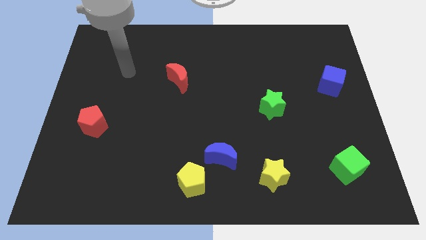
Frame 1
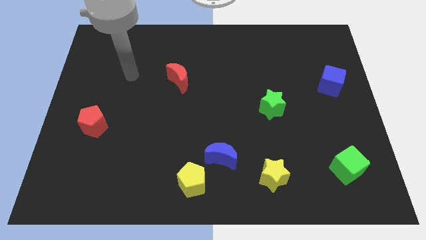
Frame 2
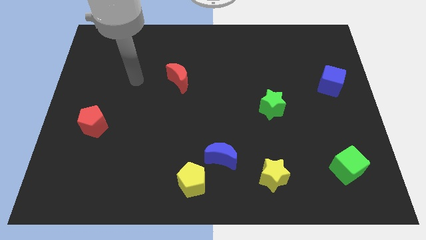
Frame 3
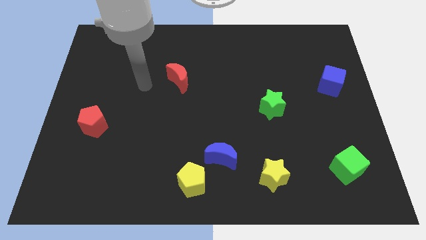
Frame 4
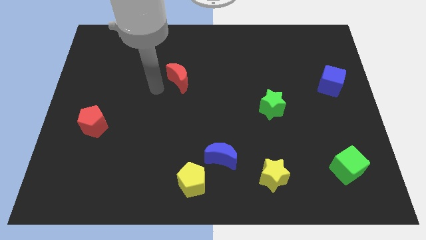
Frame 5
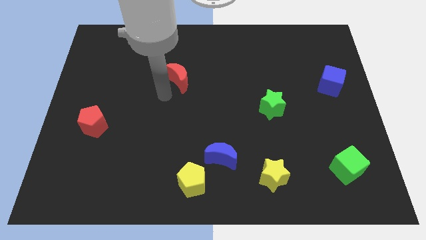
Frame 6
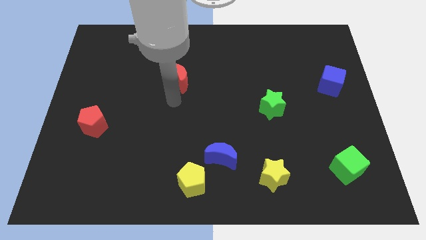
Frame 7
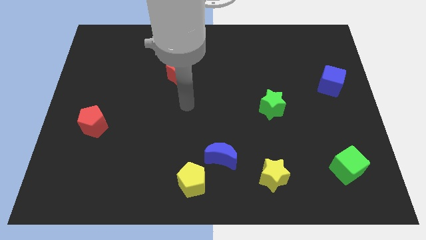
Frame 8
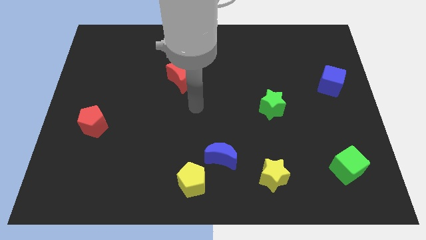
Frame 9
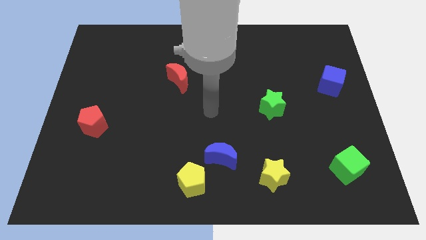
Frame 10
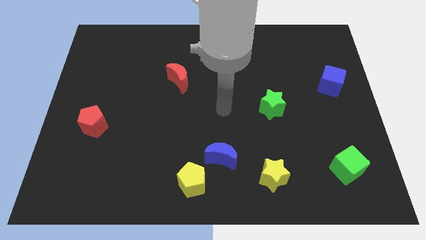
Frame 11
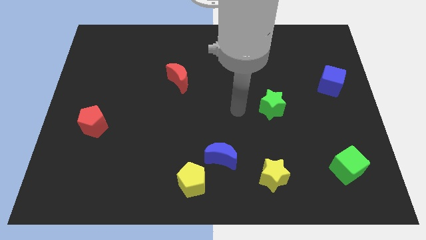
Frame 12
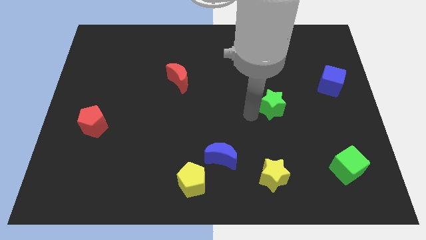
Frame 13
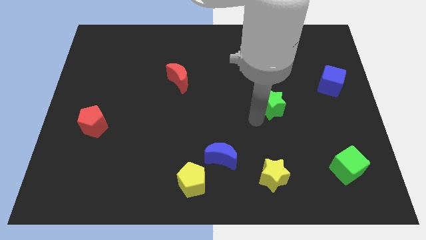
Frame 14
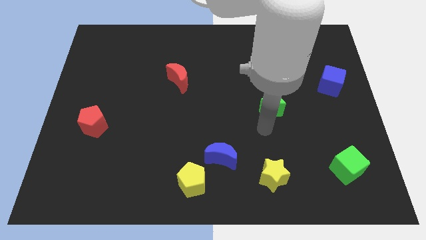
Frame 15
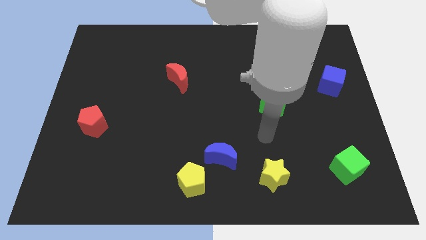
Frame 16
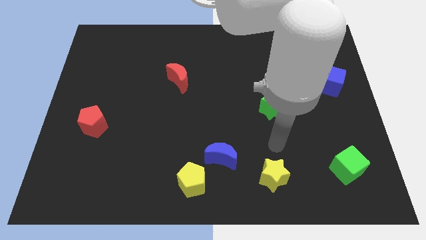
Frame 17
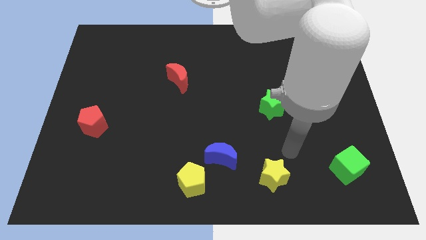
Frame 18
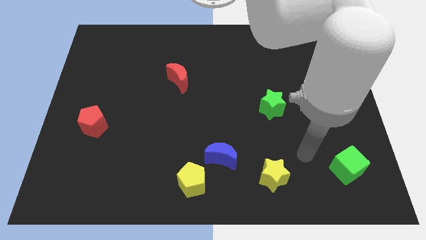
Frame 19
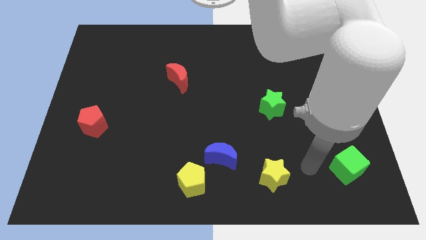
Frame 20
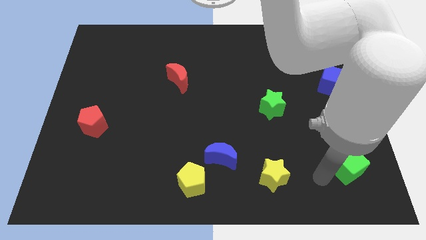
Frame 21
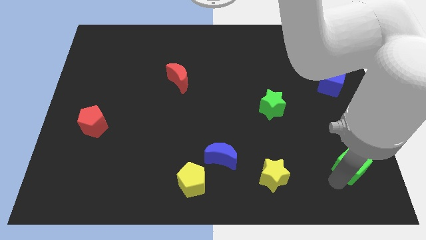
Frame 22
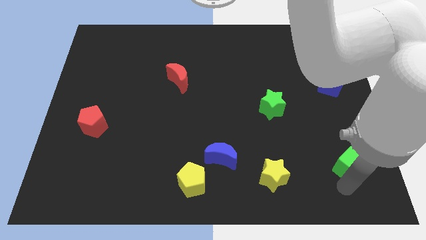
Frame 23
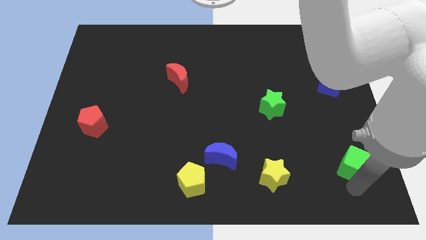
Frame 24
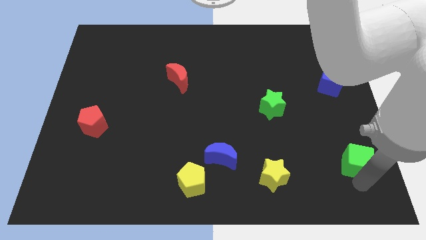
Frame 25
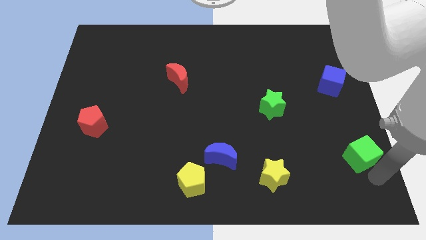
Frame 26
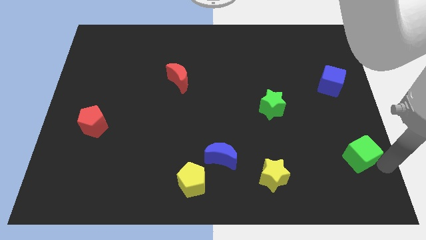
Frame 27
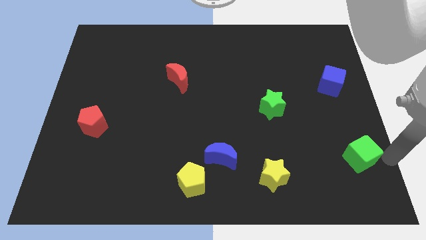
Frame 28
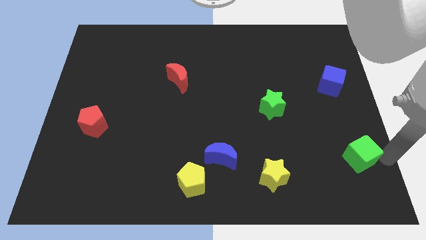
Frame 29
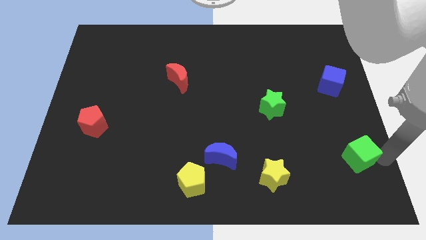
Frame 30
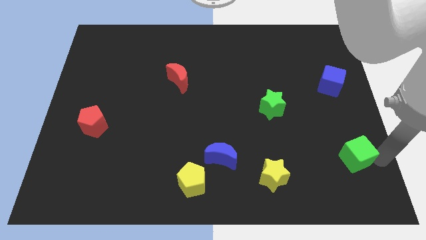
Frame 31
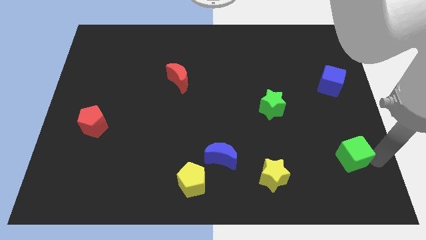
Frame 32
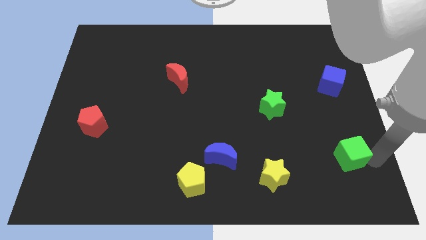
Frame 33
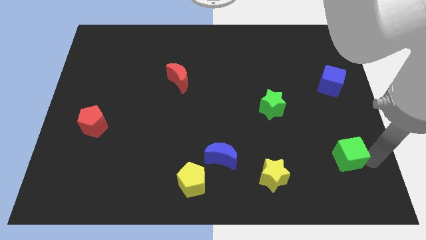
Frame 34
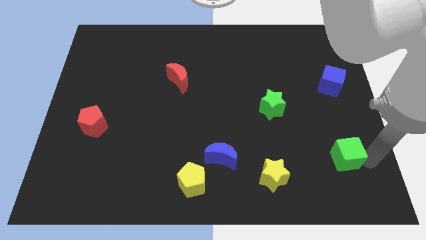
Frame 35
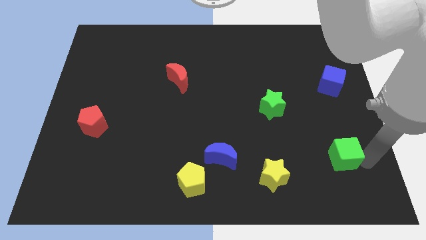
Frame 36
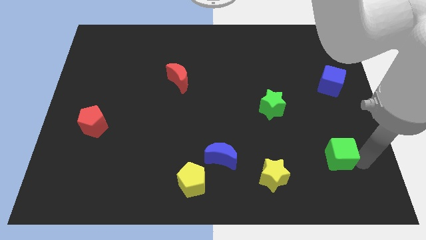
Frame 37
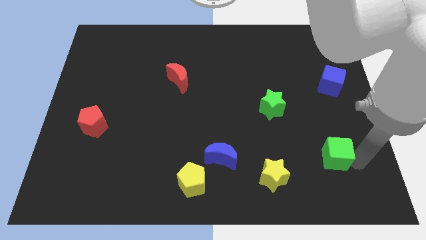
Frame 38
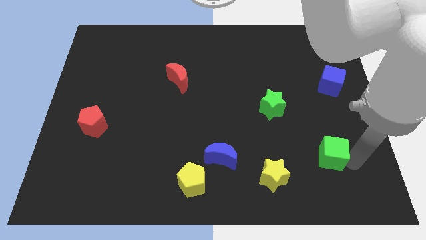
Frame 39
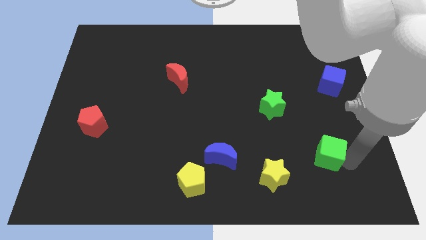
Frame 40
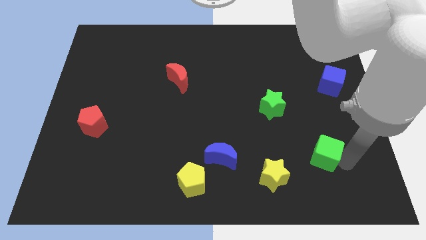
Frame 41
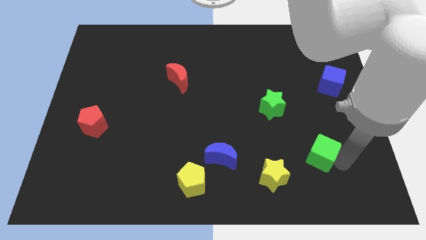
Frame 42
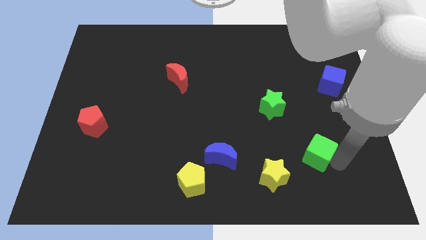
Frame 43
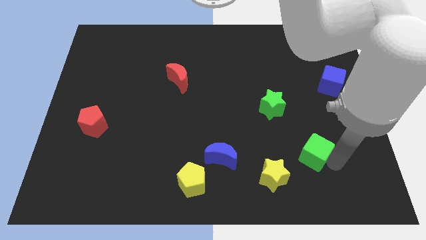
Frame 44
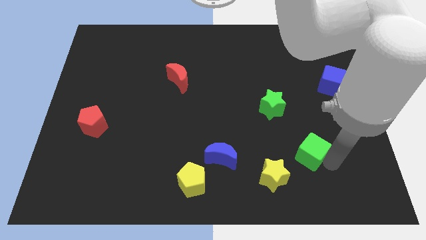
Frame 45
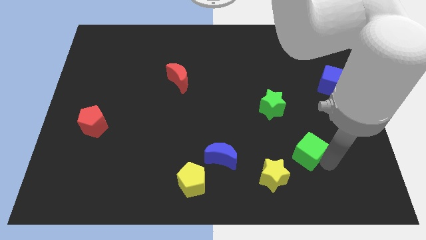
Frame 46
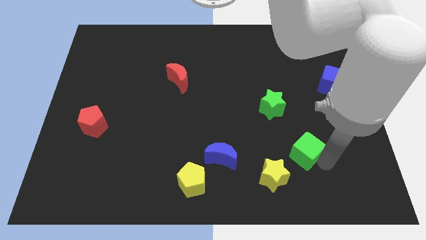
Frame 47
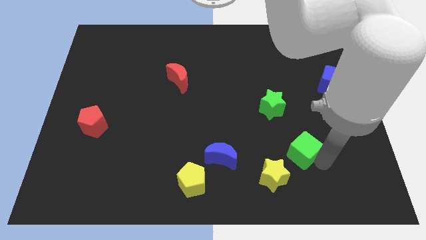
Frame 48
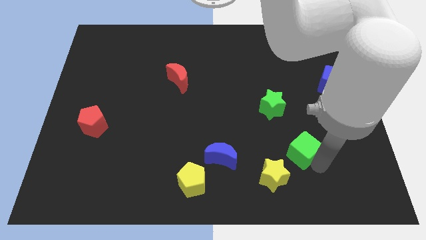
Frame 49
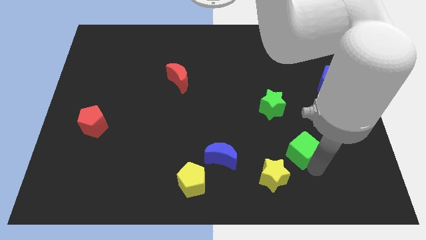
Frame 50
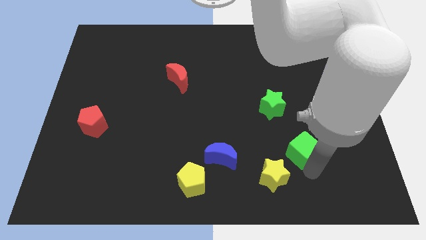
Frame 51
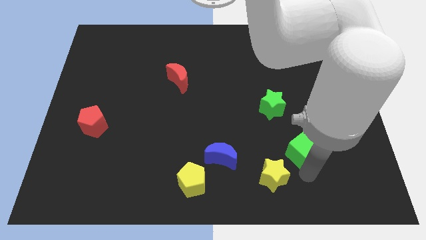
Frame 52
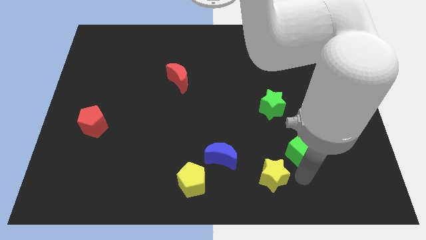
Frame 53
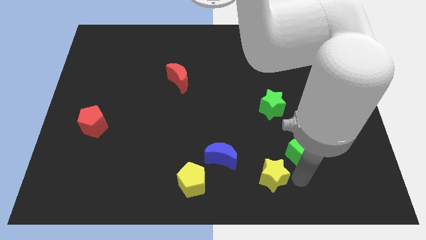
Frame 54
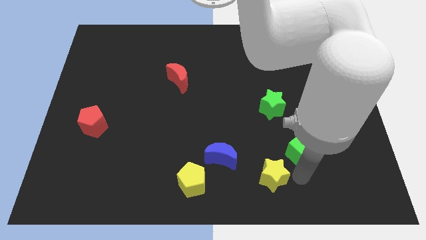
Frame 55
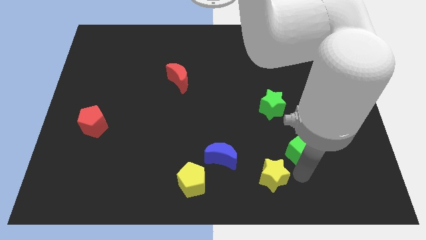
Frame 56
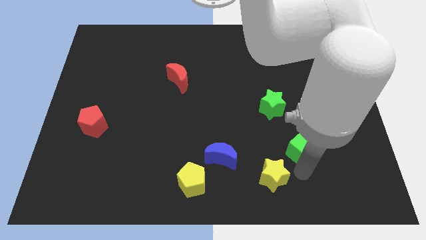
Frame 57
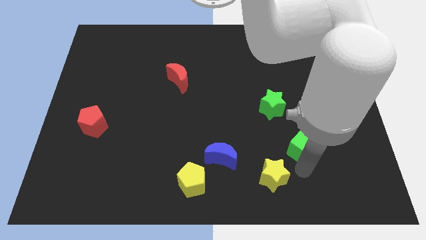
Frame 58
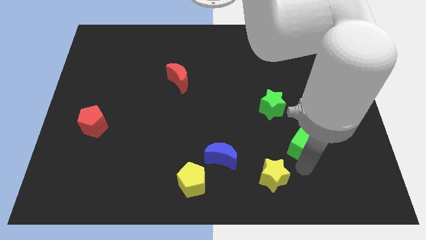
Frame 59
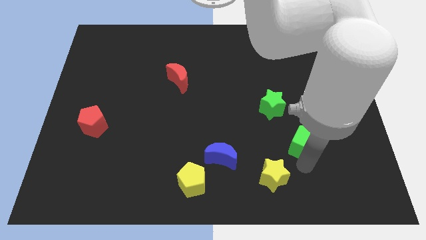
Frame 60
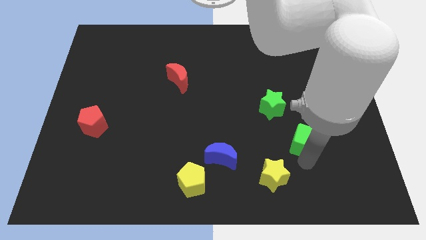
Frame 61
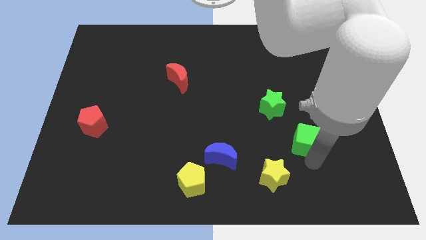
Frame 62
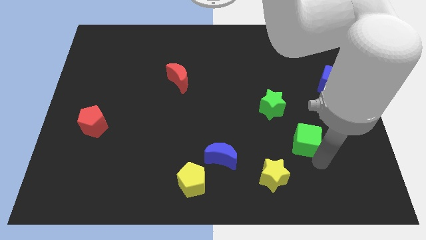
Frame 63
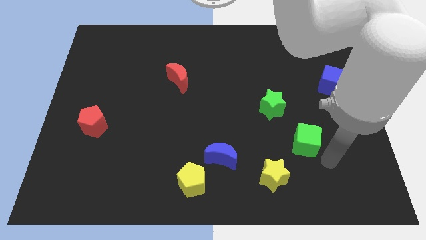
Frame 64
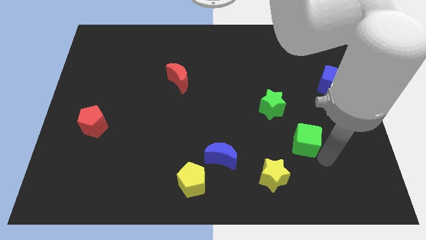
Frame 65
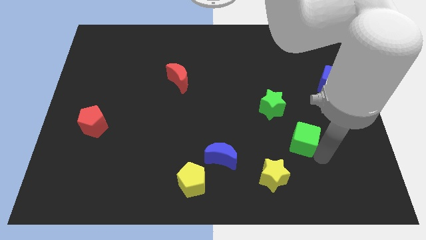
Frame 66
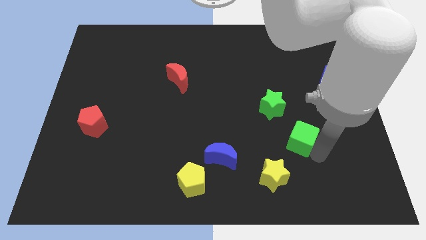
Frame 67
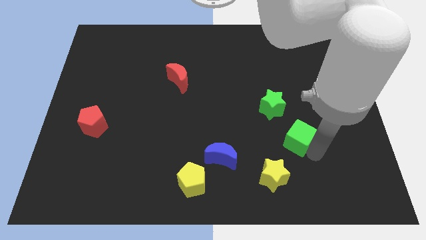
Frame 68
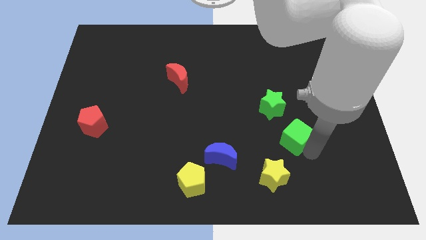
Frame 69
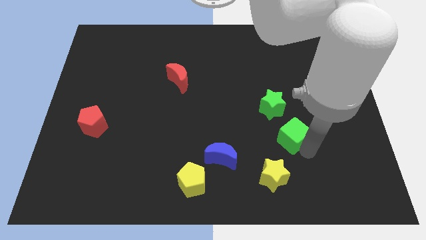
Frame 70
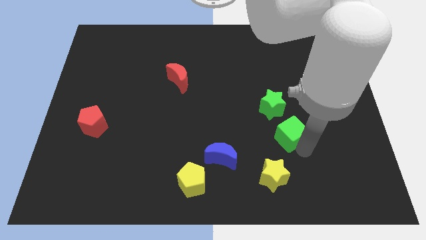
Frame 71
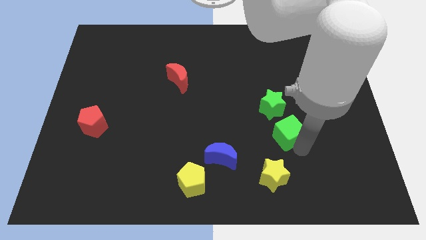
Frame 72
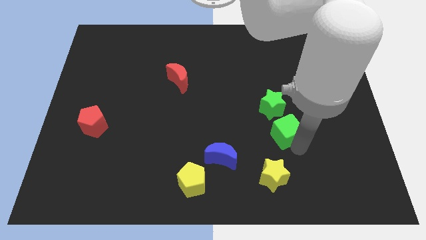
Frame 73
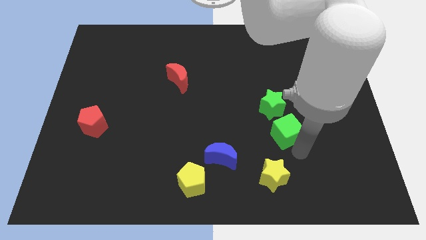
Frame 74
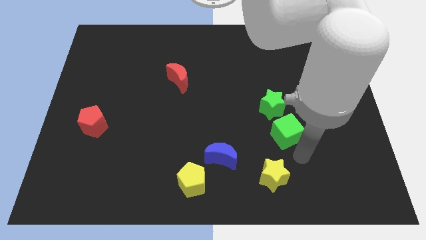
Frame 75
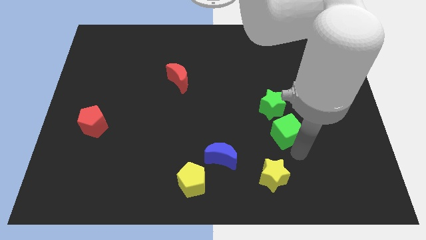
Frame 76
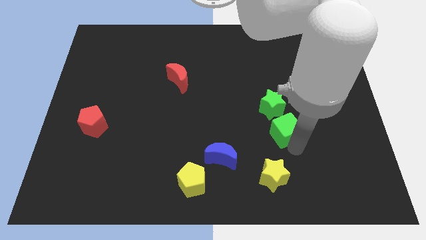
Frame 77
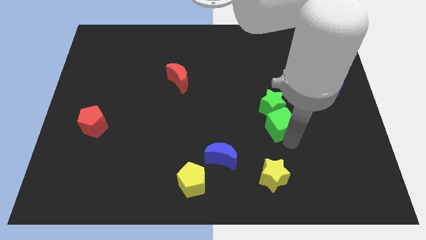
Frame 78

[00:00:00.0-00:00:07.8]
push the green cube next to the green star
